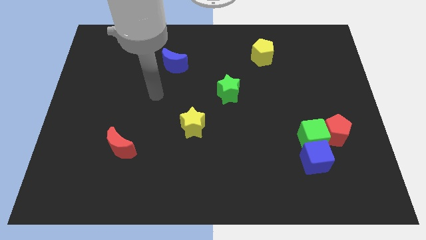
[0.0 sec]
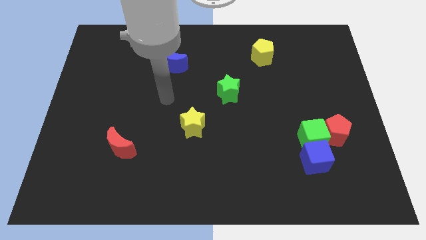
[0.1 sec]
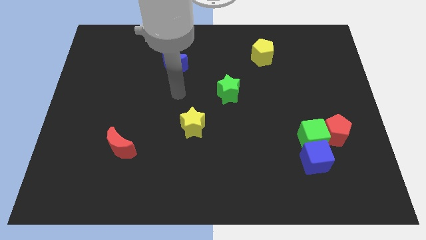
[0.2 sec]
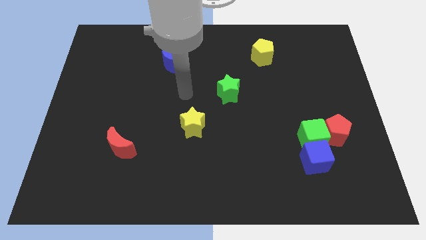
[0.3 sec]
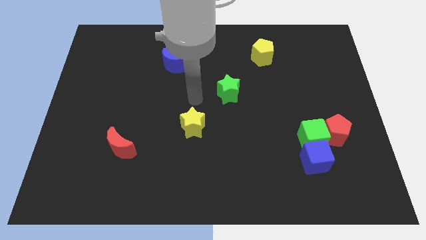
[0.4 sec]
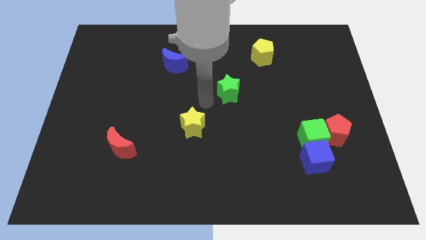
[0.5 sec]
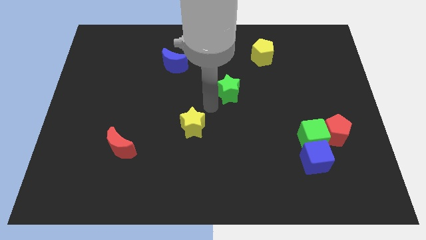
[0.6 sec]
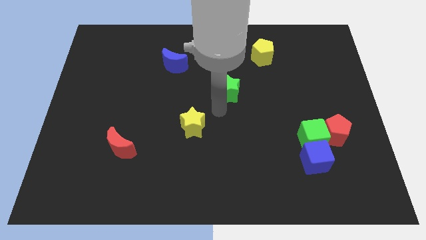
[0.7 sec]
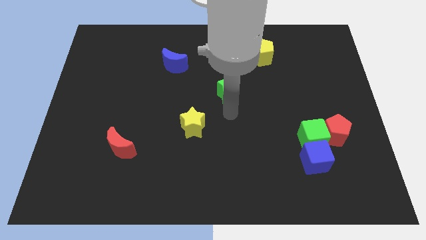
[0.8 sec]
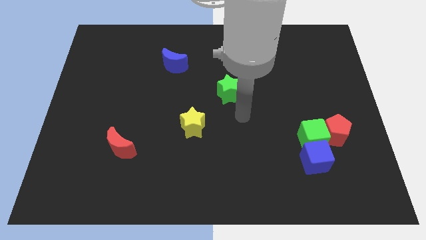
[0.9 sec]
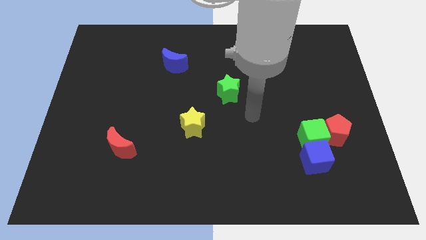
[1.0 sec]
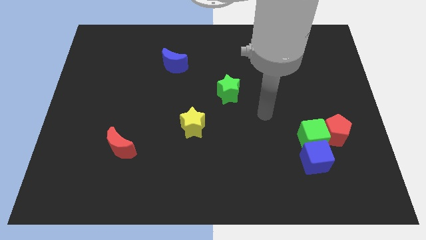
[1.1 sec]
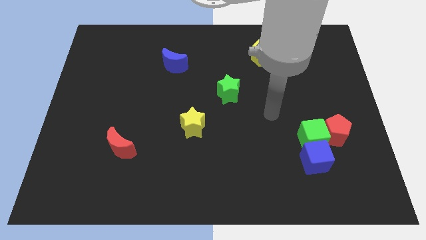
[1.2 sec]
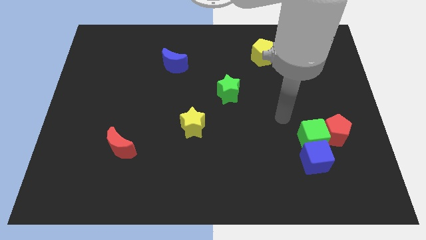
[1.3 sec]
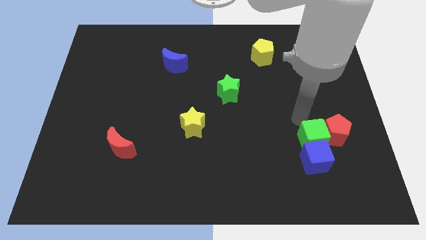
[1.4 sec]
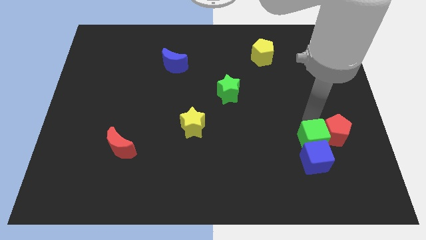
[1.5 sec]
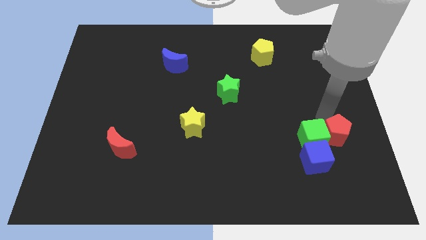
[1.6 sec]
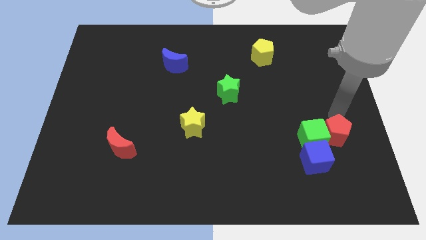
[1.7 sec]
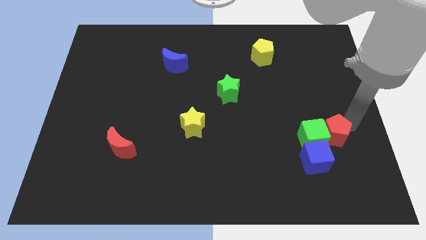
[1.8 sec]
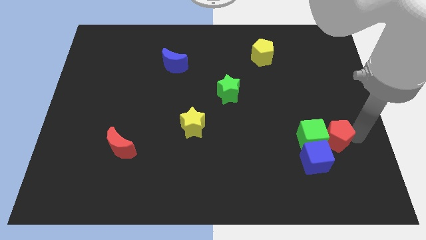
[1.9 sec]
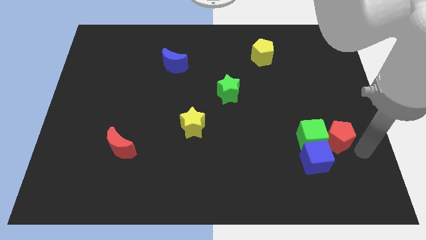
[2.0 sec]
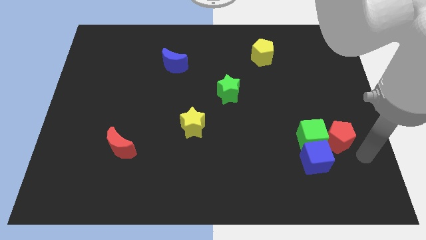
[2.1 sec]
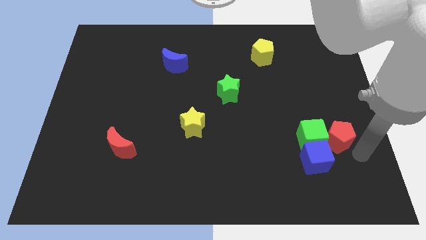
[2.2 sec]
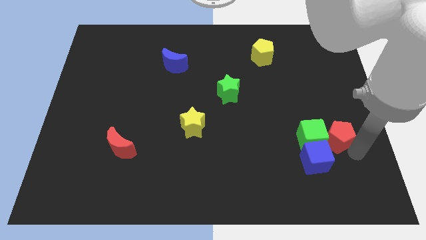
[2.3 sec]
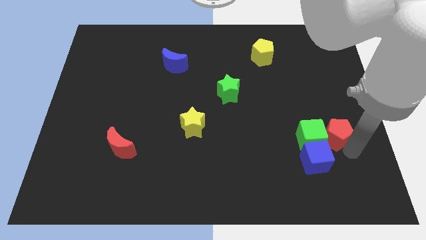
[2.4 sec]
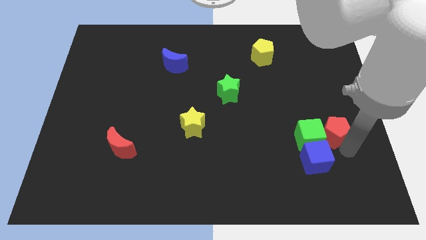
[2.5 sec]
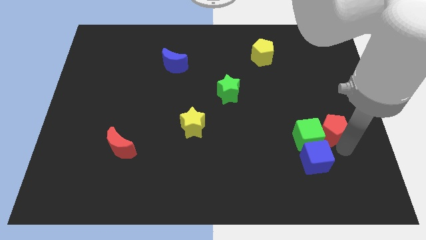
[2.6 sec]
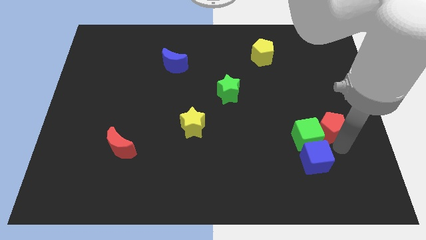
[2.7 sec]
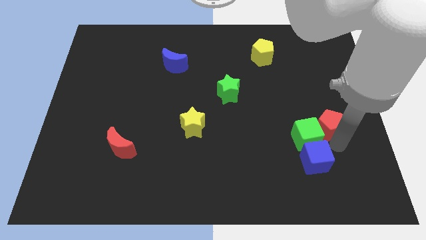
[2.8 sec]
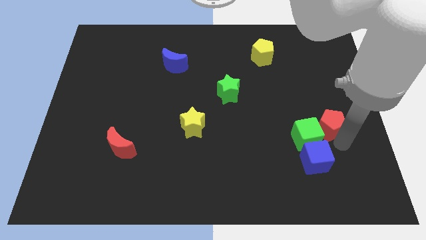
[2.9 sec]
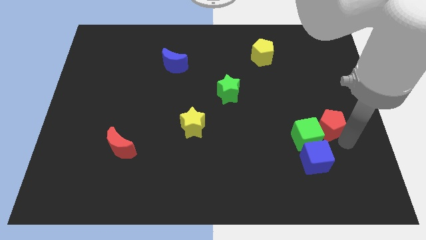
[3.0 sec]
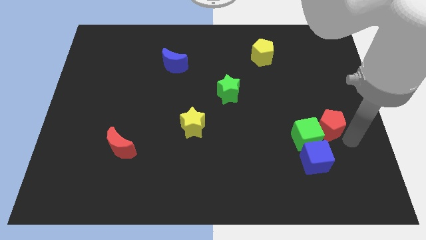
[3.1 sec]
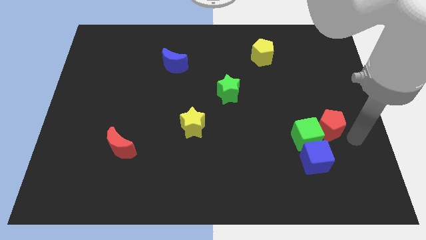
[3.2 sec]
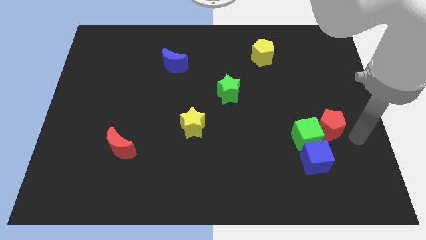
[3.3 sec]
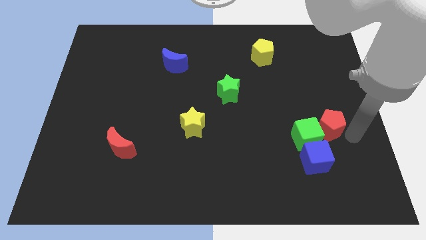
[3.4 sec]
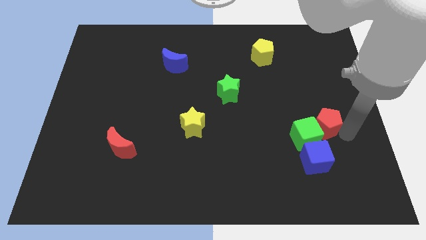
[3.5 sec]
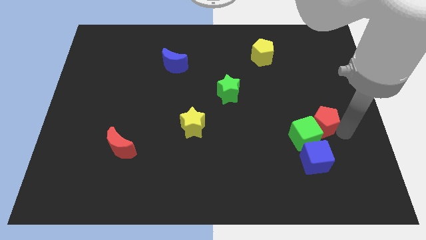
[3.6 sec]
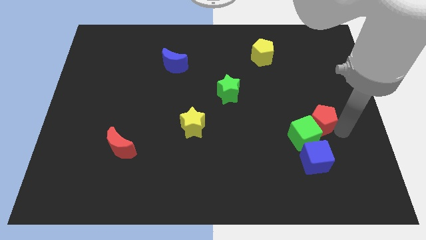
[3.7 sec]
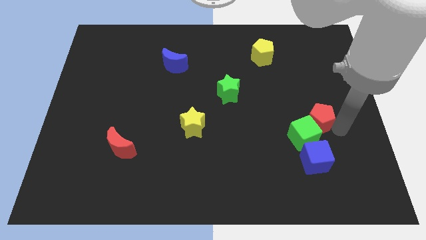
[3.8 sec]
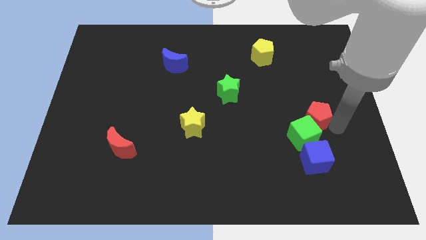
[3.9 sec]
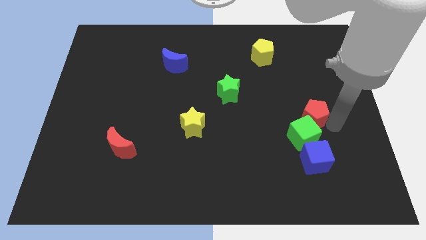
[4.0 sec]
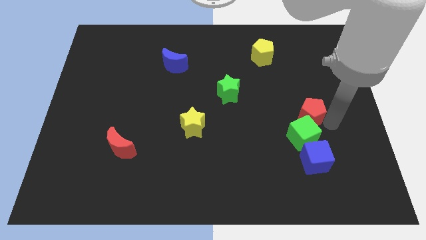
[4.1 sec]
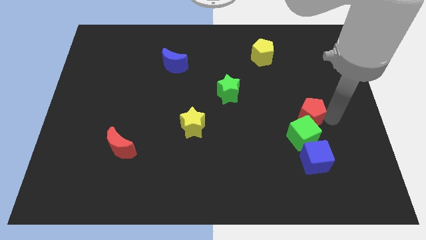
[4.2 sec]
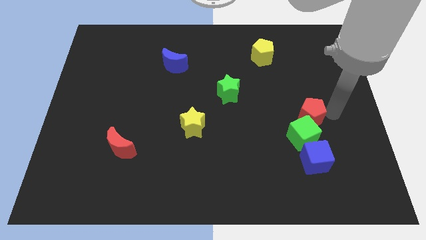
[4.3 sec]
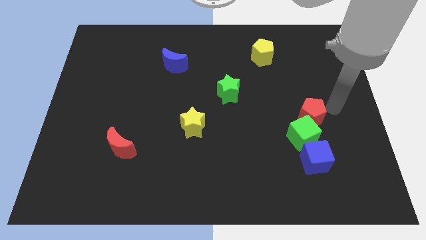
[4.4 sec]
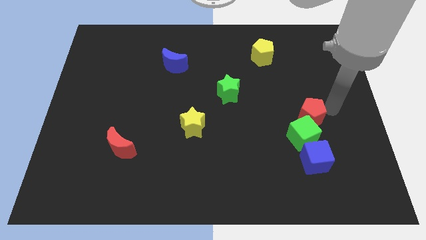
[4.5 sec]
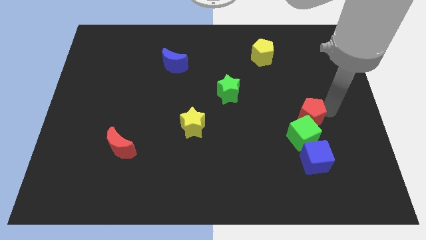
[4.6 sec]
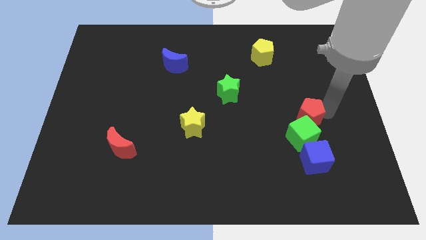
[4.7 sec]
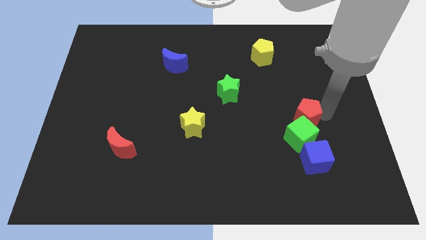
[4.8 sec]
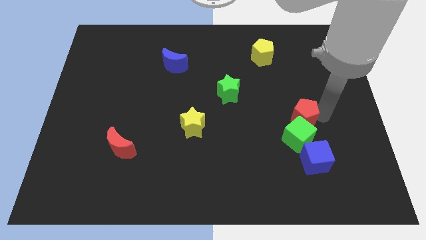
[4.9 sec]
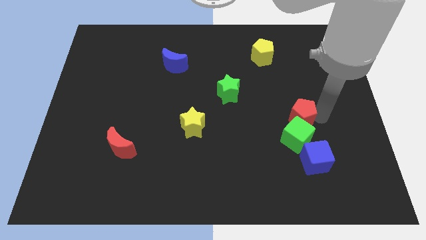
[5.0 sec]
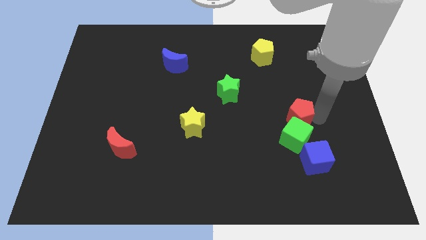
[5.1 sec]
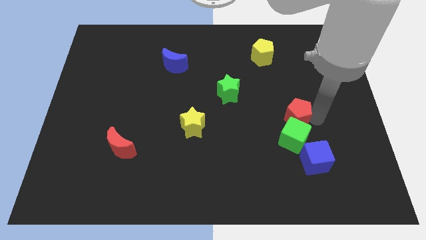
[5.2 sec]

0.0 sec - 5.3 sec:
slide the red pentagon to the left a bit

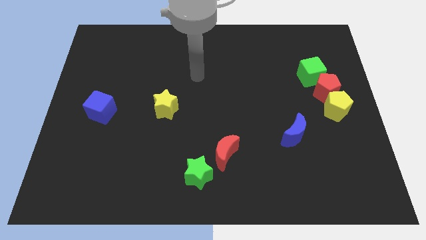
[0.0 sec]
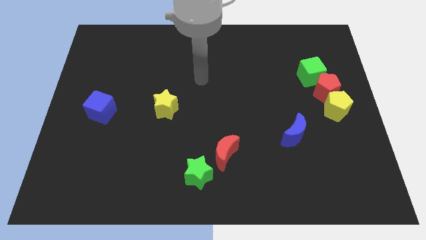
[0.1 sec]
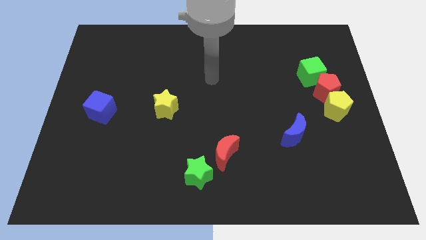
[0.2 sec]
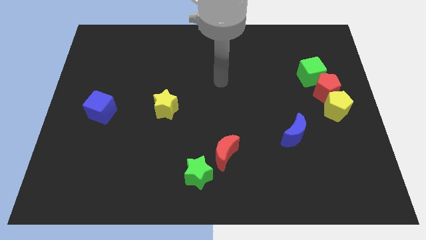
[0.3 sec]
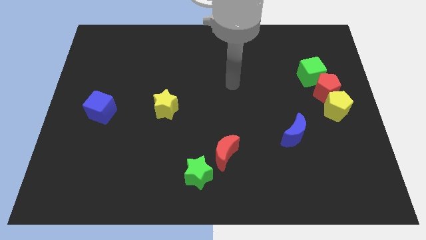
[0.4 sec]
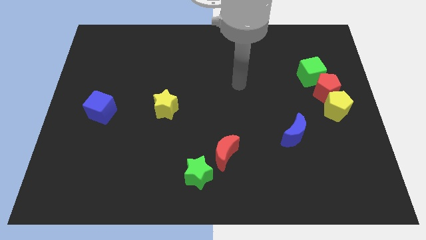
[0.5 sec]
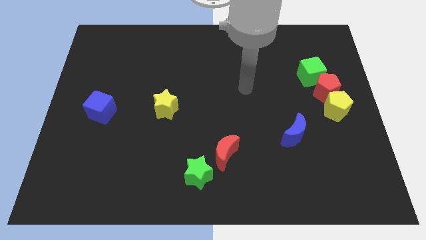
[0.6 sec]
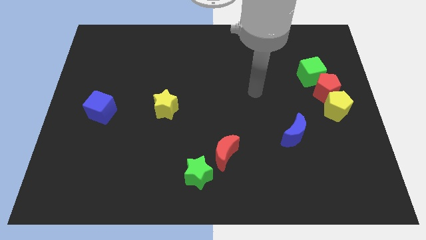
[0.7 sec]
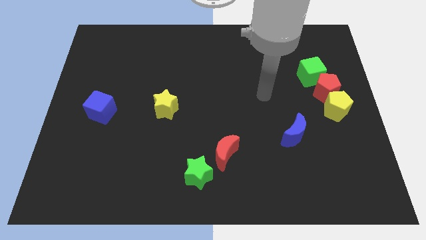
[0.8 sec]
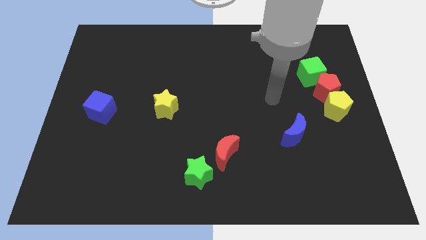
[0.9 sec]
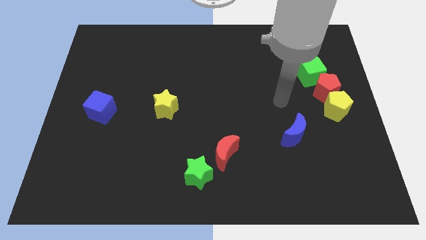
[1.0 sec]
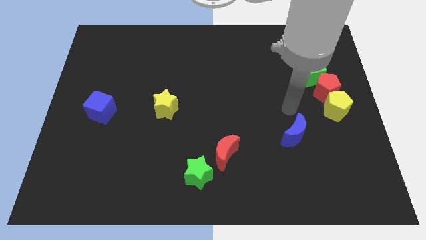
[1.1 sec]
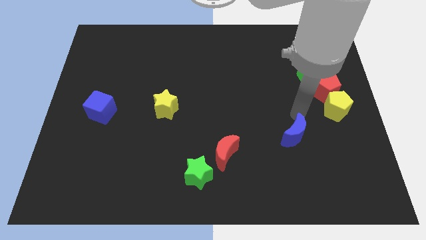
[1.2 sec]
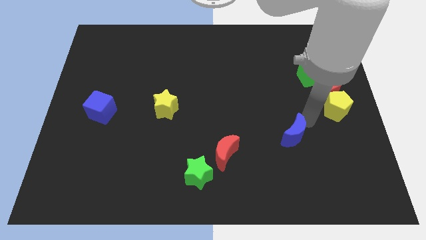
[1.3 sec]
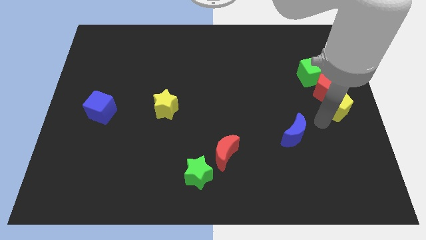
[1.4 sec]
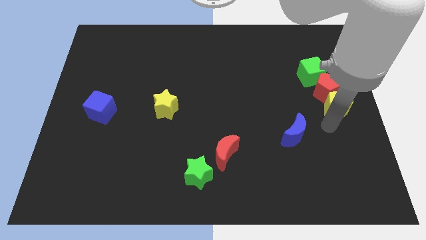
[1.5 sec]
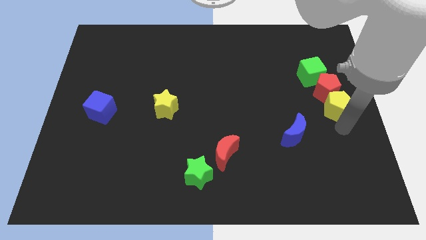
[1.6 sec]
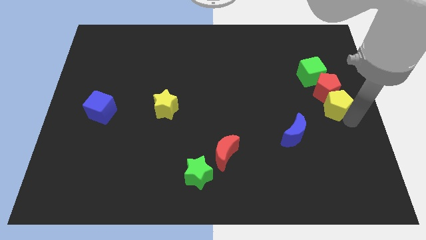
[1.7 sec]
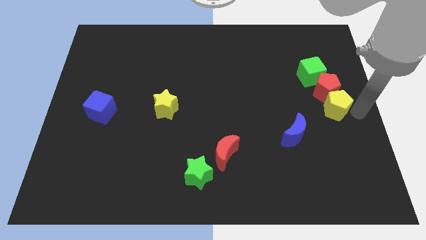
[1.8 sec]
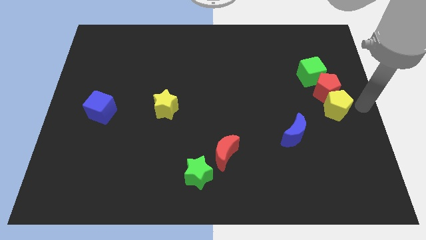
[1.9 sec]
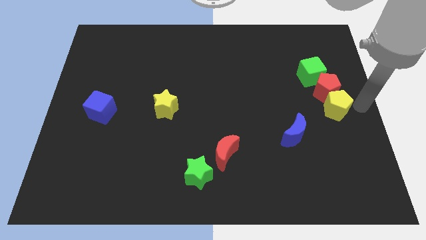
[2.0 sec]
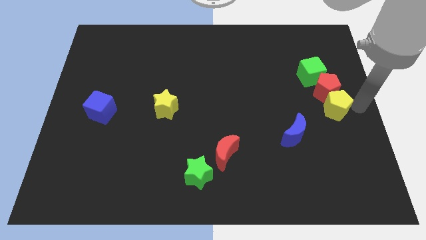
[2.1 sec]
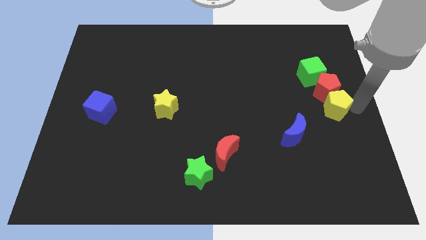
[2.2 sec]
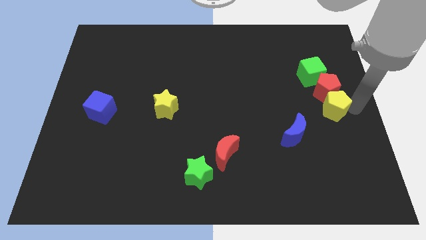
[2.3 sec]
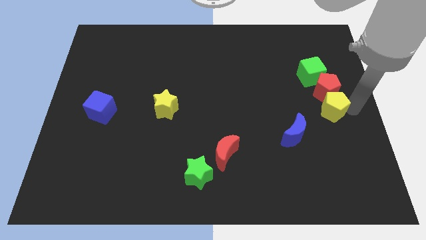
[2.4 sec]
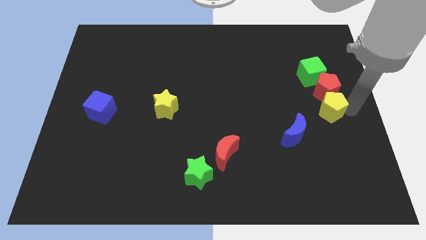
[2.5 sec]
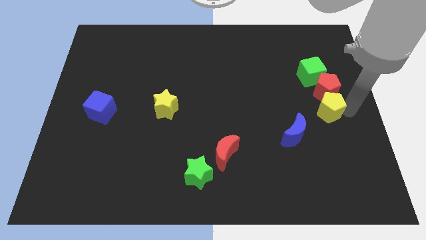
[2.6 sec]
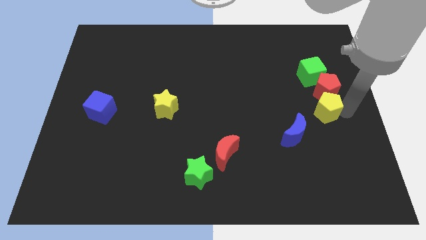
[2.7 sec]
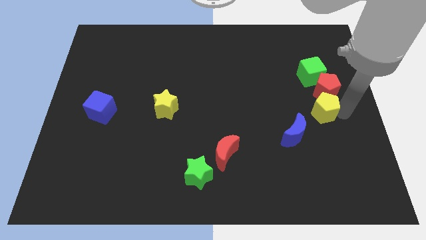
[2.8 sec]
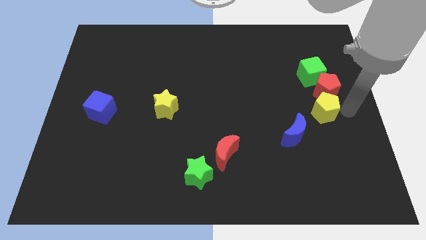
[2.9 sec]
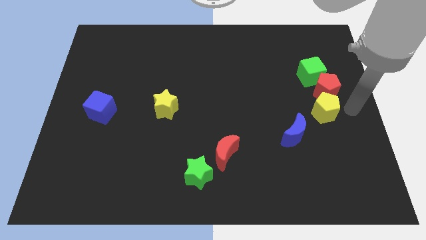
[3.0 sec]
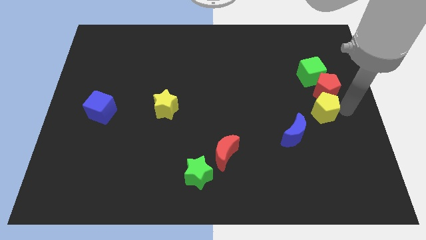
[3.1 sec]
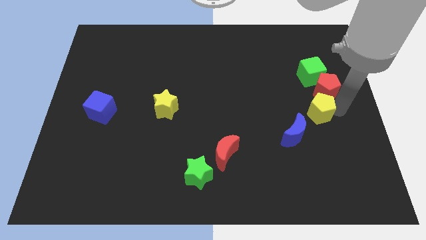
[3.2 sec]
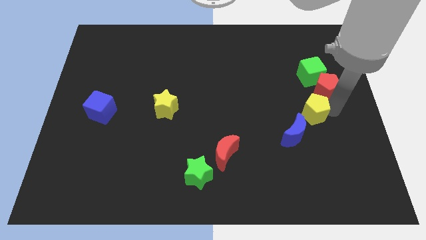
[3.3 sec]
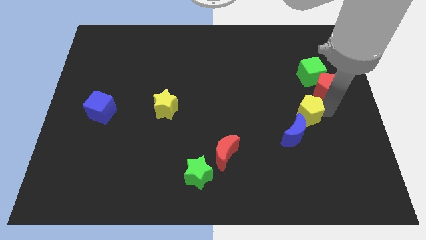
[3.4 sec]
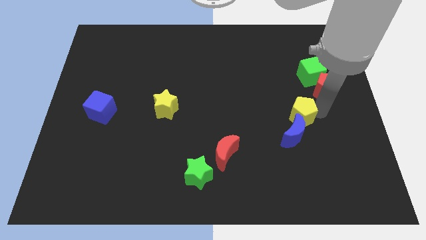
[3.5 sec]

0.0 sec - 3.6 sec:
move the yellow pentagon slightly to the left
